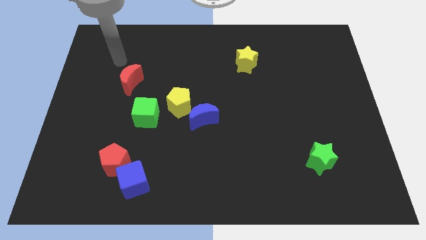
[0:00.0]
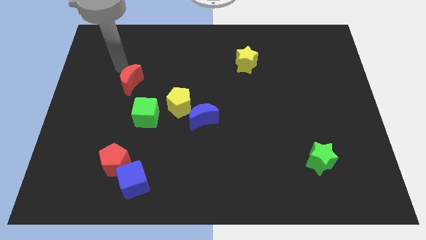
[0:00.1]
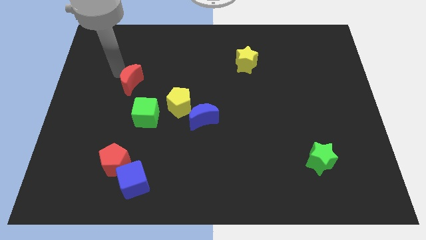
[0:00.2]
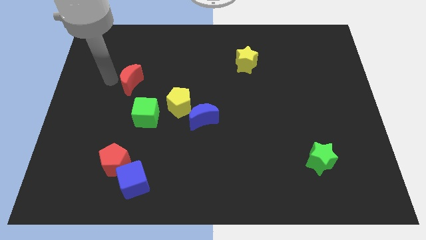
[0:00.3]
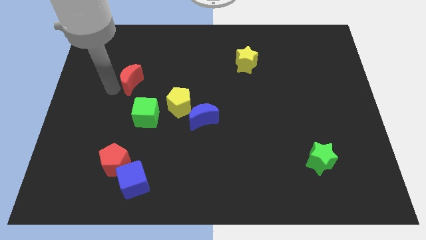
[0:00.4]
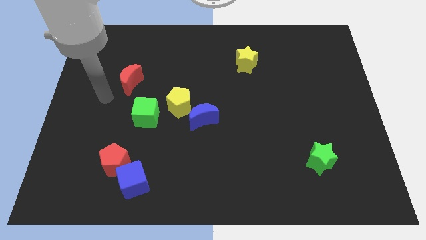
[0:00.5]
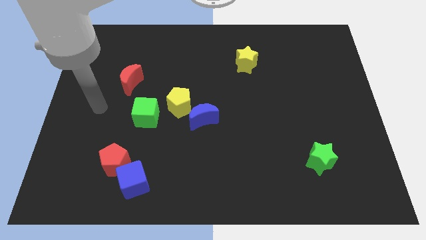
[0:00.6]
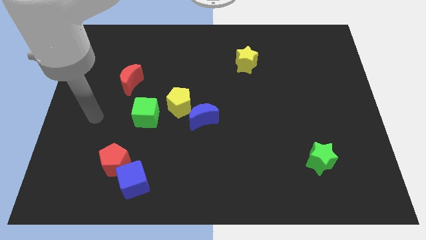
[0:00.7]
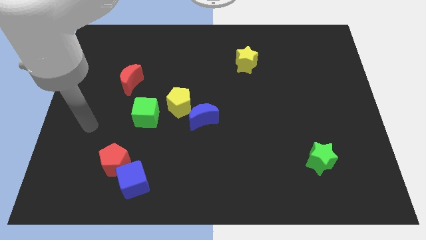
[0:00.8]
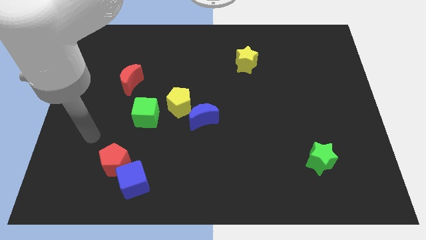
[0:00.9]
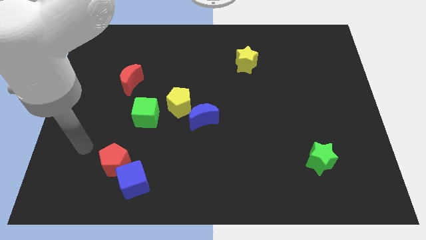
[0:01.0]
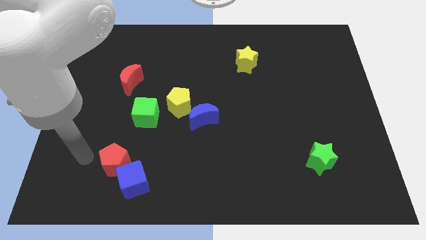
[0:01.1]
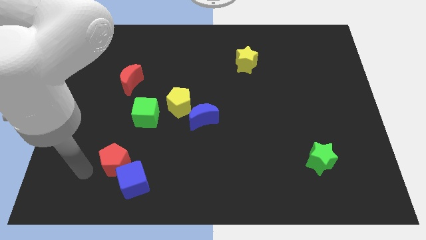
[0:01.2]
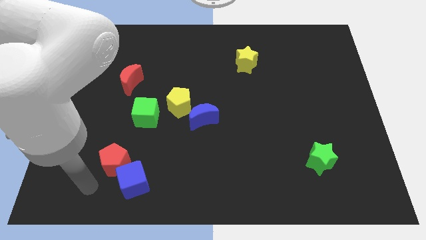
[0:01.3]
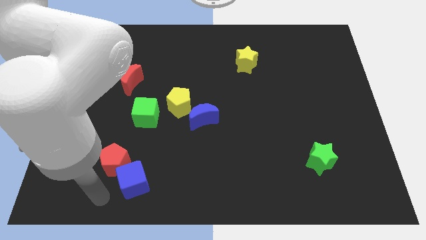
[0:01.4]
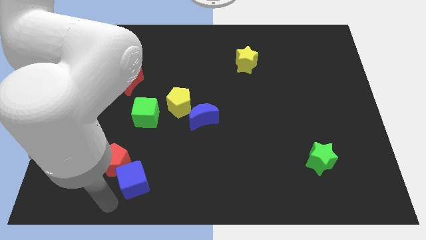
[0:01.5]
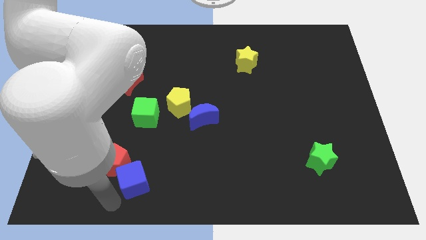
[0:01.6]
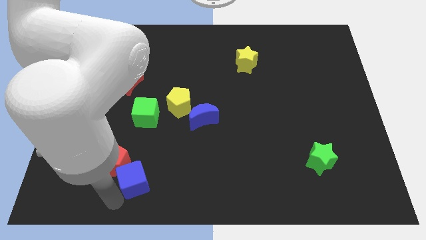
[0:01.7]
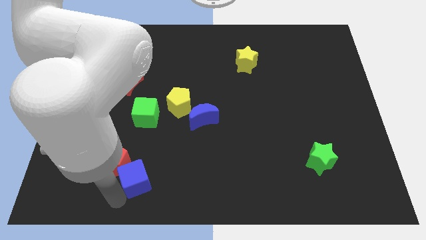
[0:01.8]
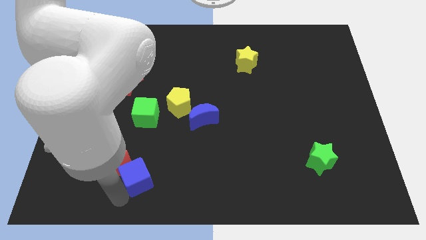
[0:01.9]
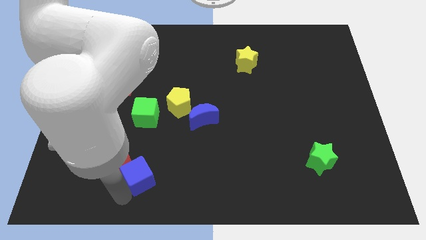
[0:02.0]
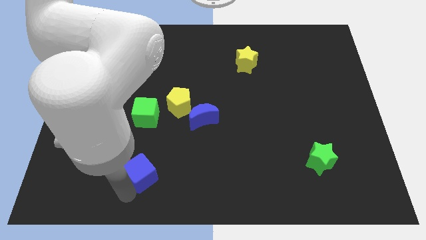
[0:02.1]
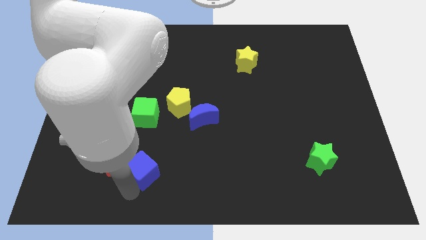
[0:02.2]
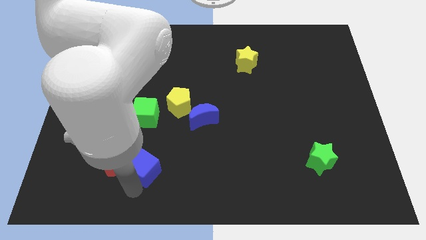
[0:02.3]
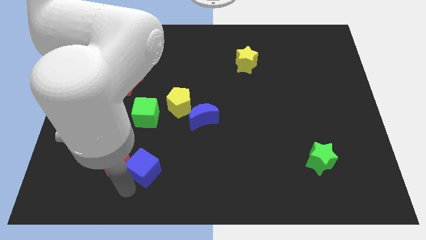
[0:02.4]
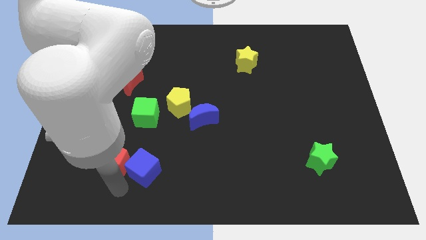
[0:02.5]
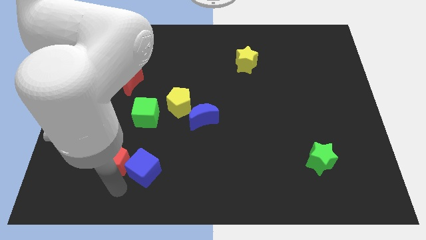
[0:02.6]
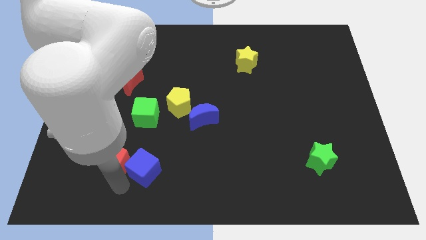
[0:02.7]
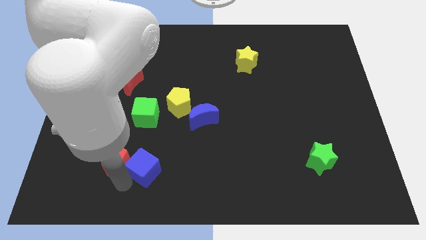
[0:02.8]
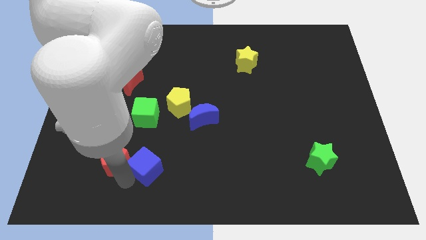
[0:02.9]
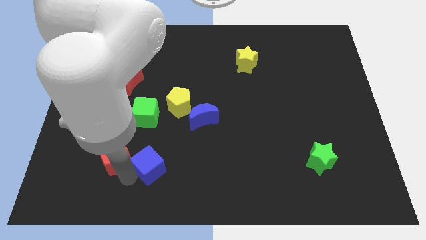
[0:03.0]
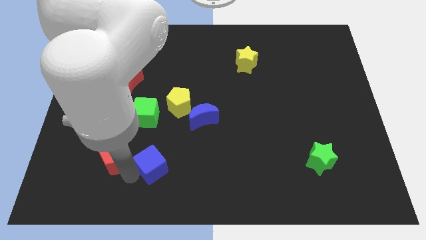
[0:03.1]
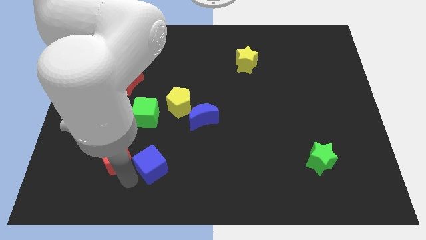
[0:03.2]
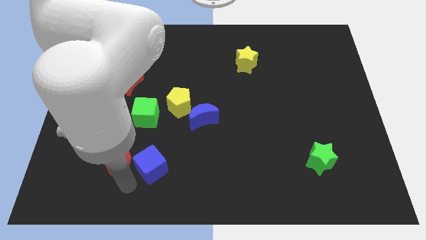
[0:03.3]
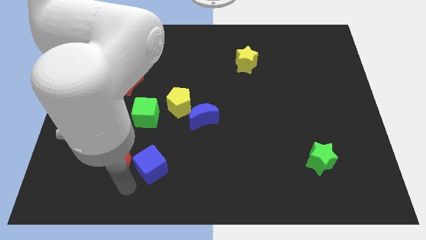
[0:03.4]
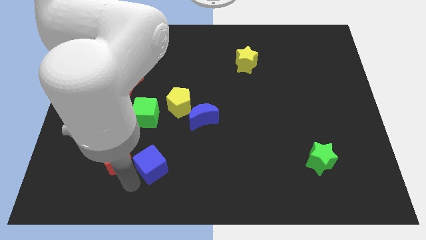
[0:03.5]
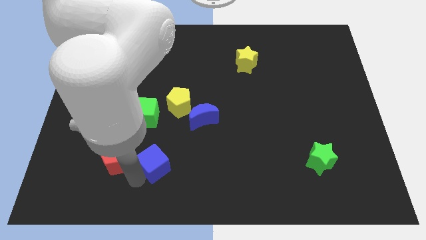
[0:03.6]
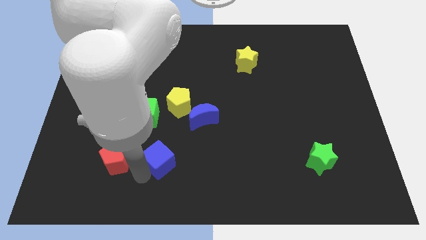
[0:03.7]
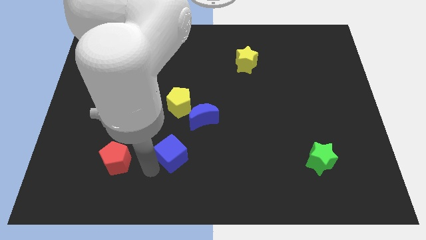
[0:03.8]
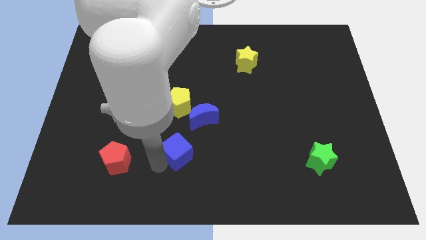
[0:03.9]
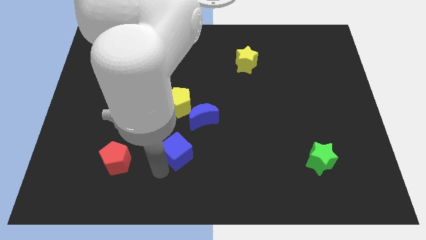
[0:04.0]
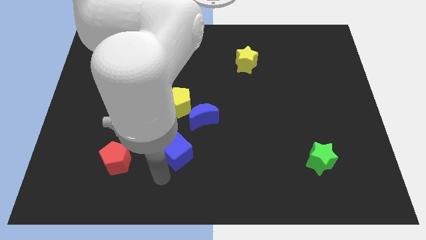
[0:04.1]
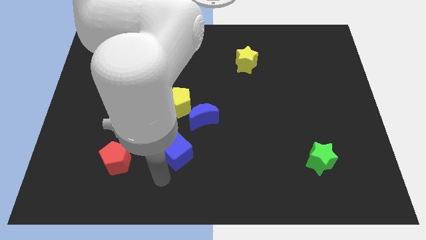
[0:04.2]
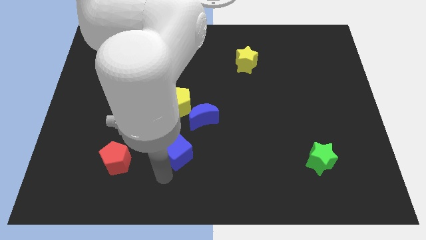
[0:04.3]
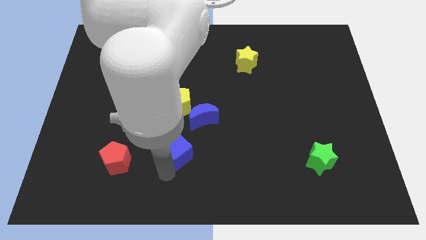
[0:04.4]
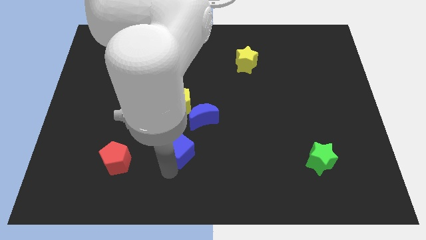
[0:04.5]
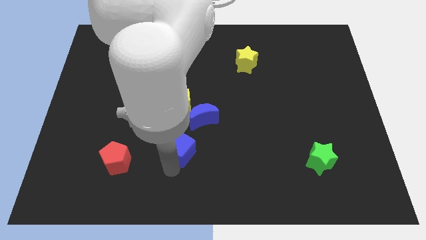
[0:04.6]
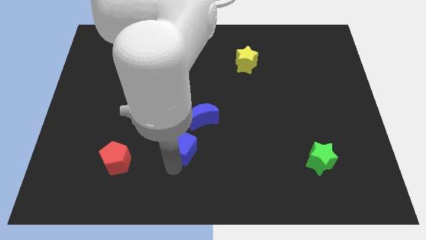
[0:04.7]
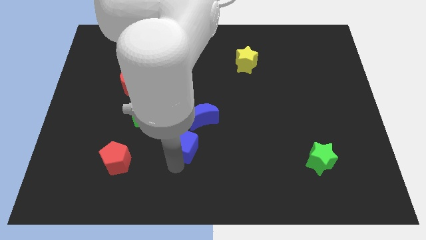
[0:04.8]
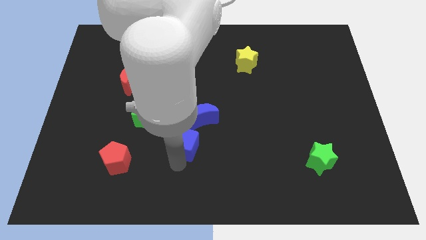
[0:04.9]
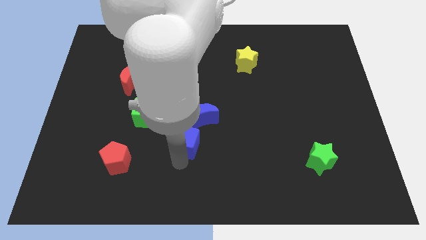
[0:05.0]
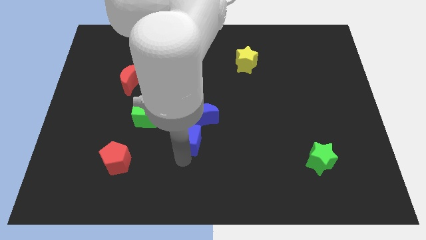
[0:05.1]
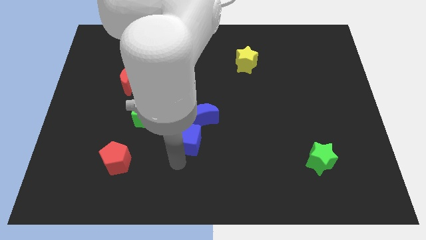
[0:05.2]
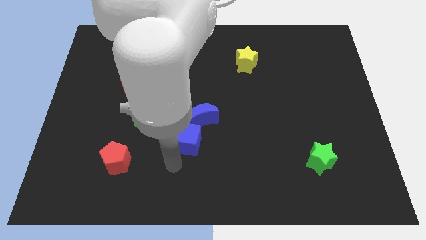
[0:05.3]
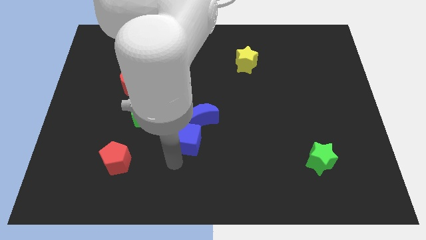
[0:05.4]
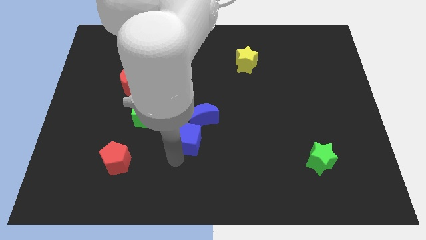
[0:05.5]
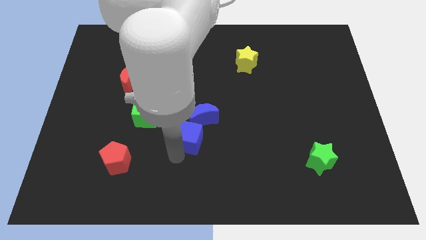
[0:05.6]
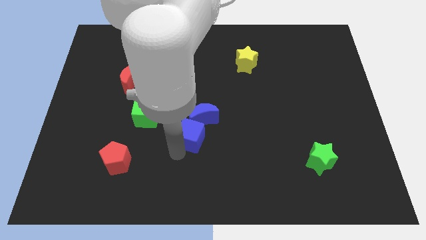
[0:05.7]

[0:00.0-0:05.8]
put the blue cube close to the blue moon

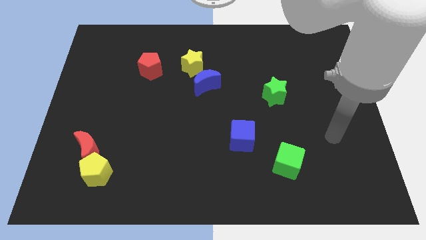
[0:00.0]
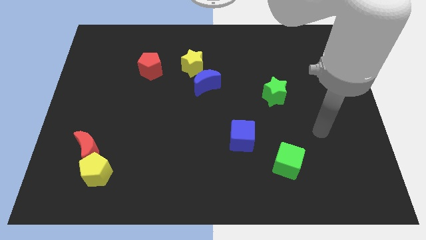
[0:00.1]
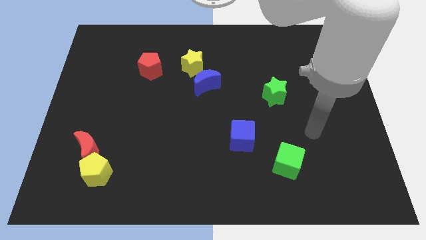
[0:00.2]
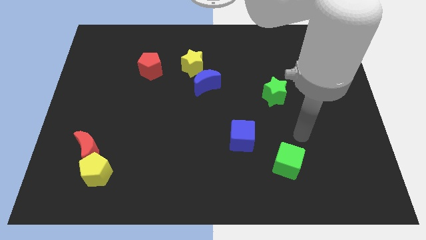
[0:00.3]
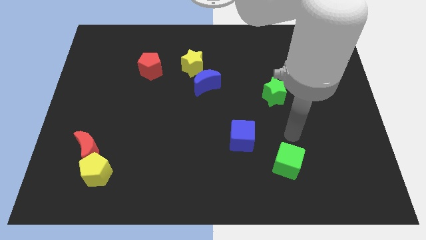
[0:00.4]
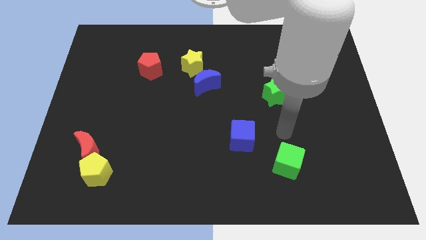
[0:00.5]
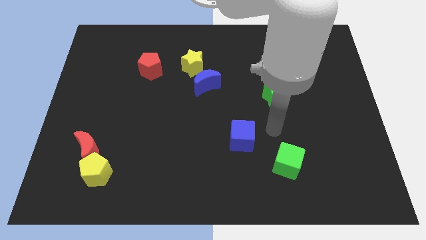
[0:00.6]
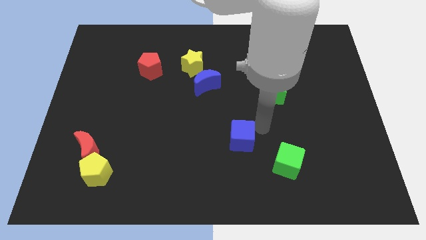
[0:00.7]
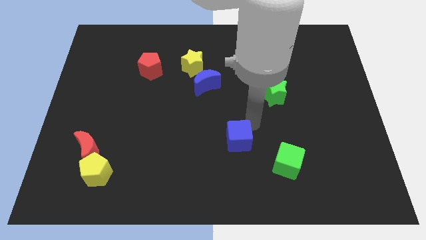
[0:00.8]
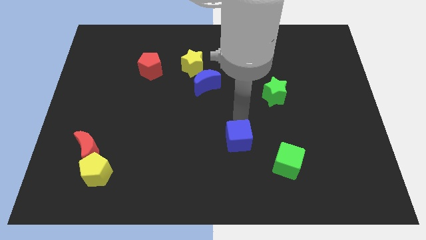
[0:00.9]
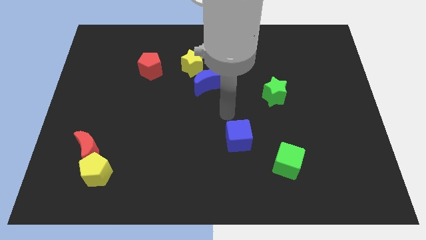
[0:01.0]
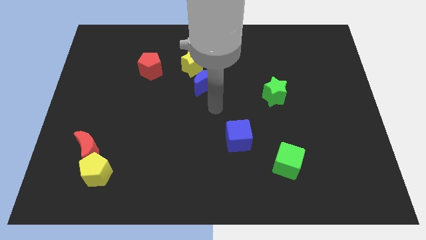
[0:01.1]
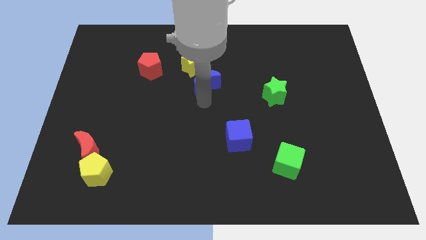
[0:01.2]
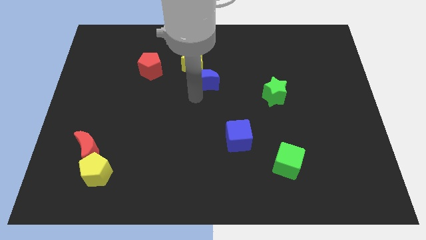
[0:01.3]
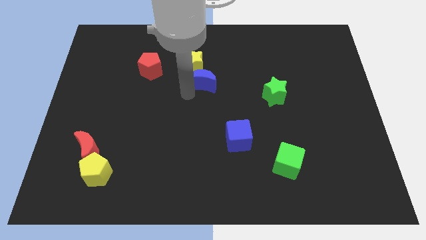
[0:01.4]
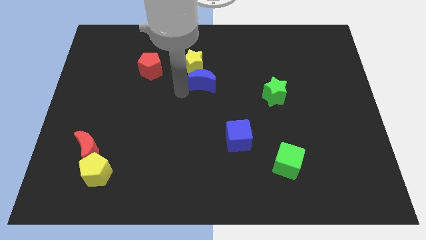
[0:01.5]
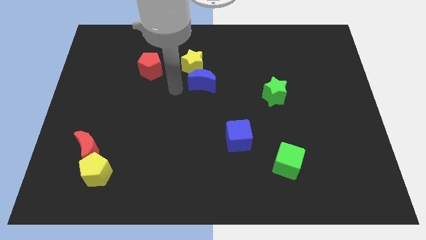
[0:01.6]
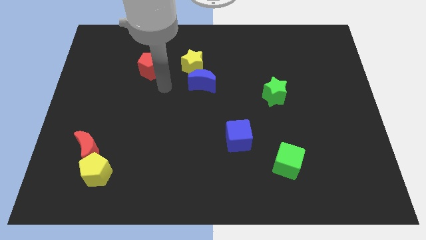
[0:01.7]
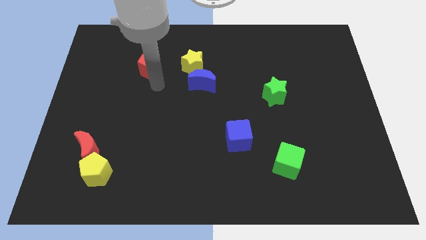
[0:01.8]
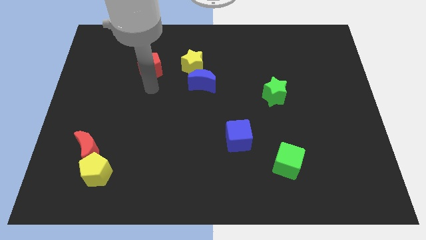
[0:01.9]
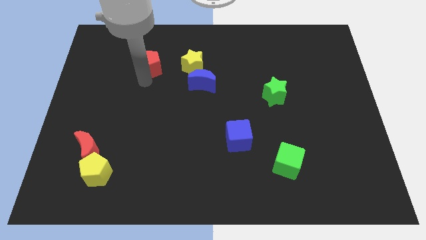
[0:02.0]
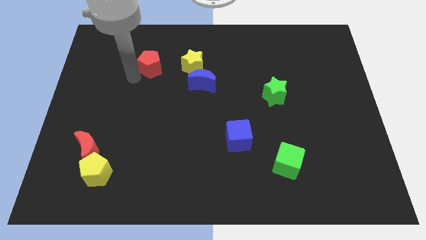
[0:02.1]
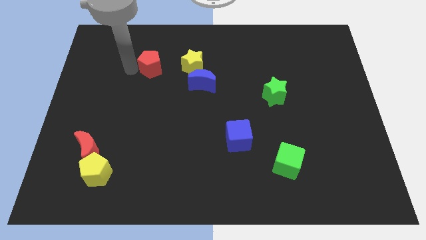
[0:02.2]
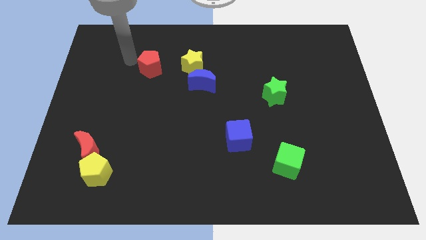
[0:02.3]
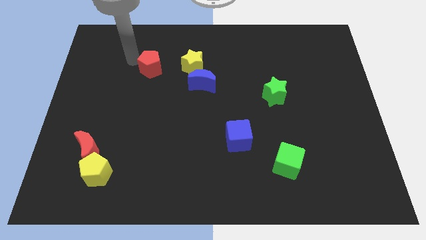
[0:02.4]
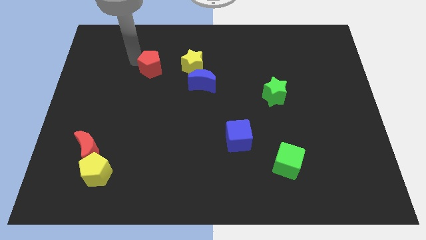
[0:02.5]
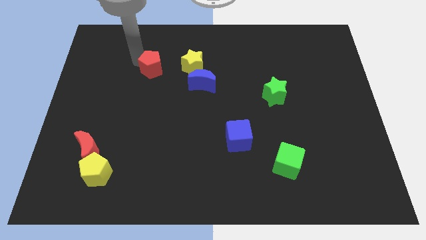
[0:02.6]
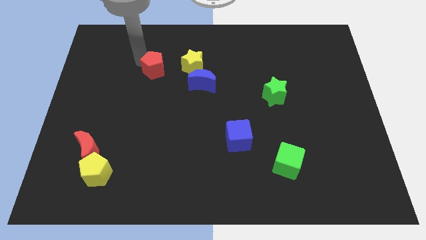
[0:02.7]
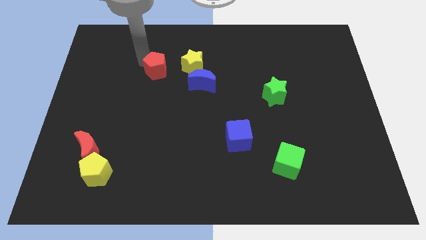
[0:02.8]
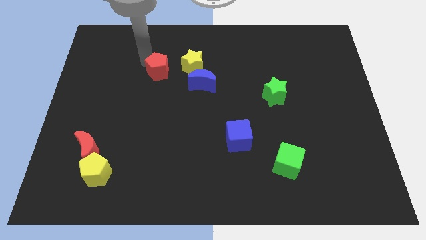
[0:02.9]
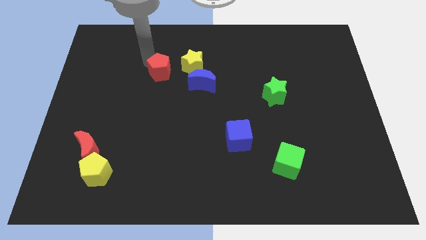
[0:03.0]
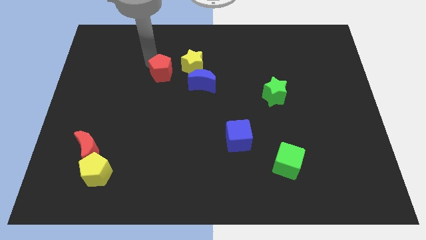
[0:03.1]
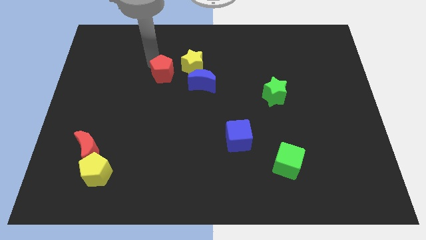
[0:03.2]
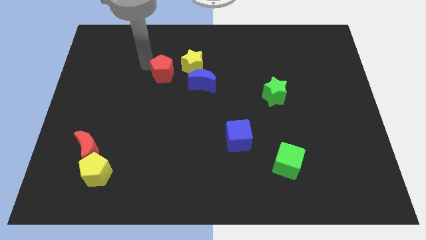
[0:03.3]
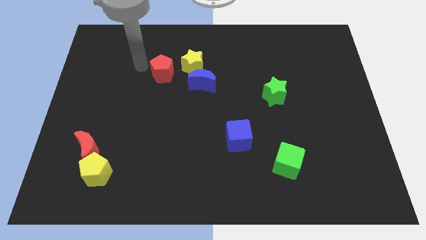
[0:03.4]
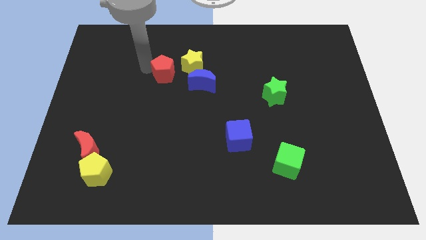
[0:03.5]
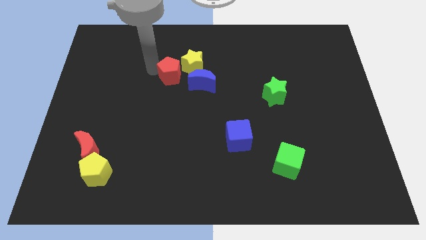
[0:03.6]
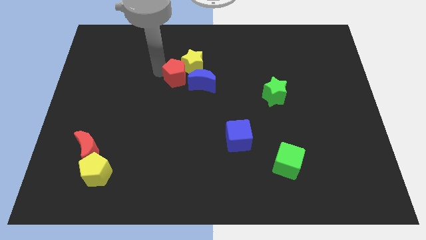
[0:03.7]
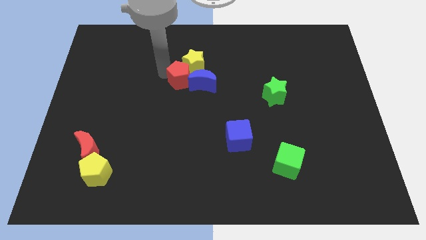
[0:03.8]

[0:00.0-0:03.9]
push the red pentagon next to the blue moon
